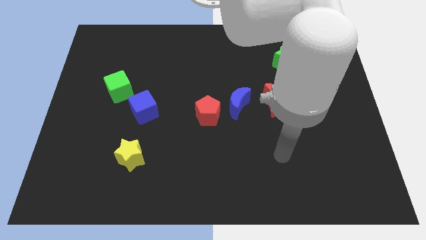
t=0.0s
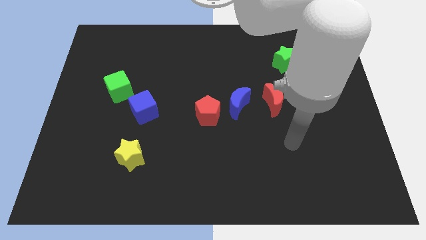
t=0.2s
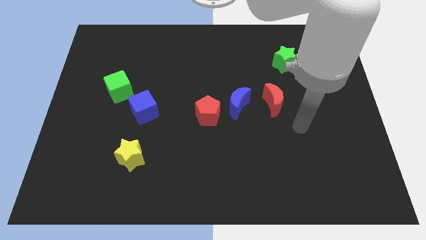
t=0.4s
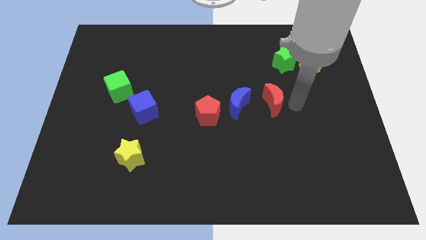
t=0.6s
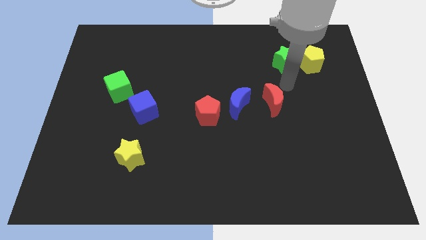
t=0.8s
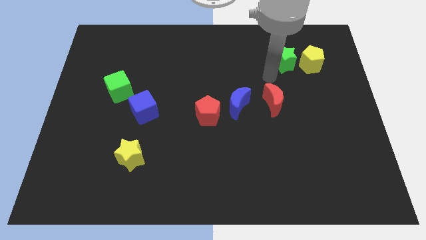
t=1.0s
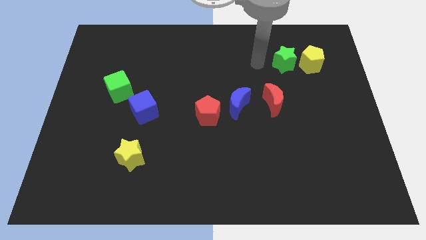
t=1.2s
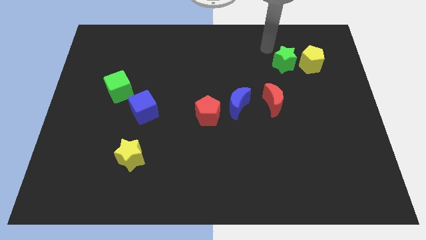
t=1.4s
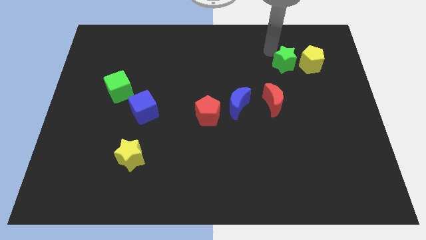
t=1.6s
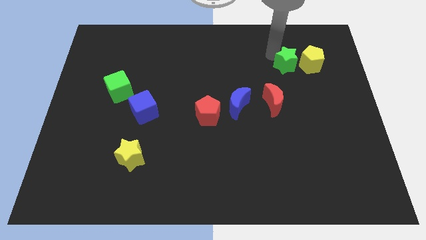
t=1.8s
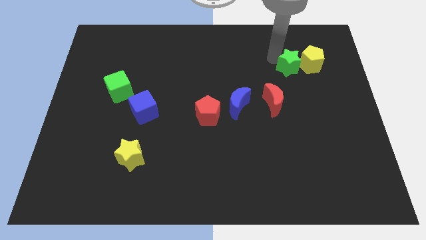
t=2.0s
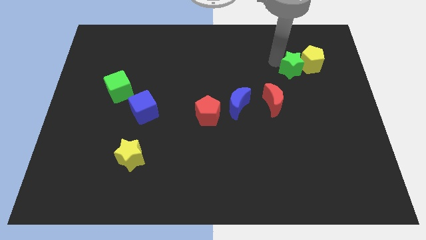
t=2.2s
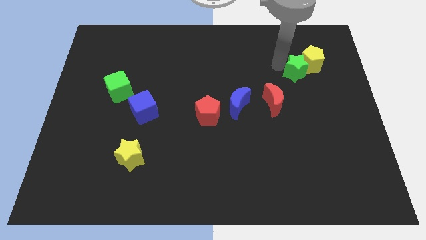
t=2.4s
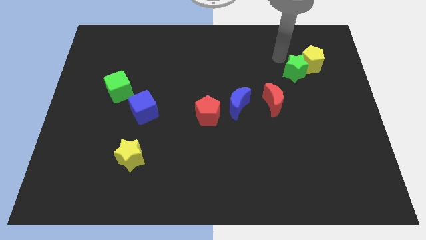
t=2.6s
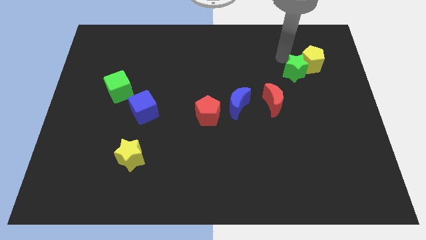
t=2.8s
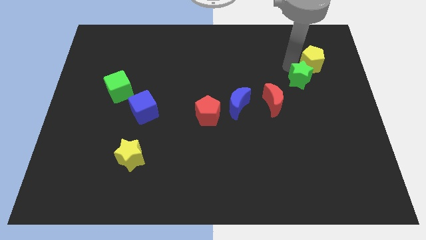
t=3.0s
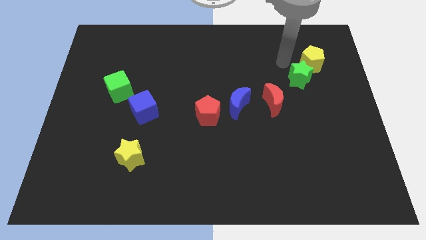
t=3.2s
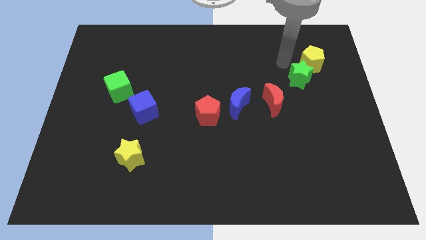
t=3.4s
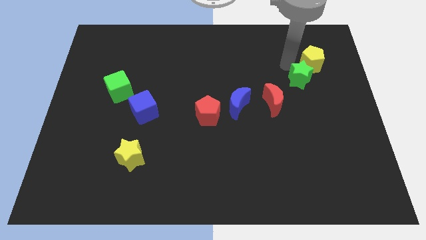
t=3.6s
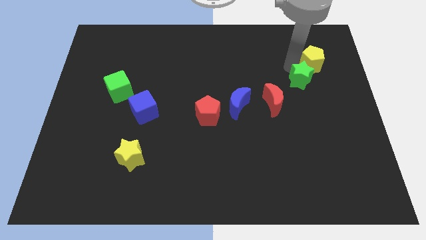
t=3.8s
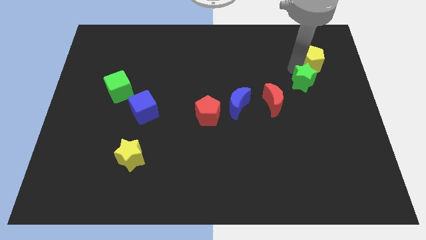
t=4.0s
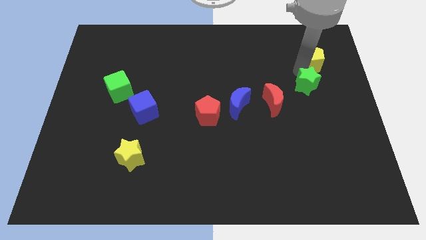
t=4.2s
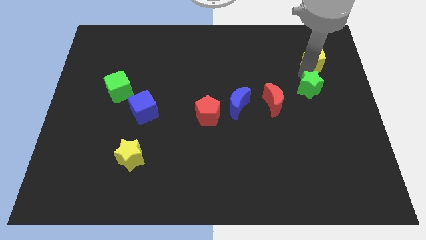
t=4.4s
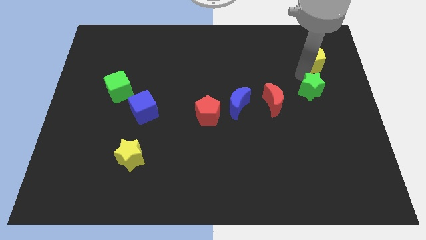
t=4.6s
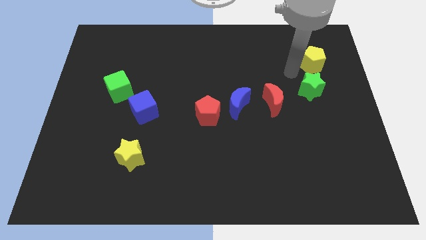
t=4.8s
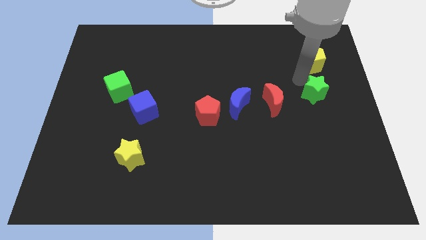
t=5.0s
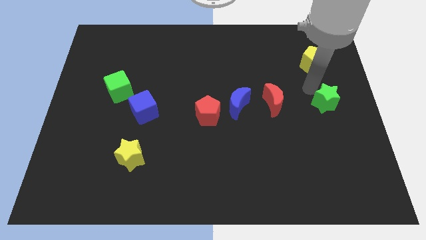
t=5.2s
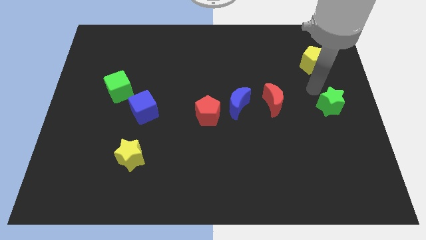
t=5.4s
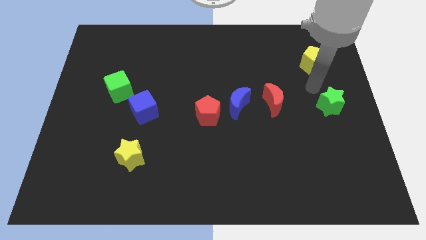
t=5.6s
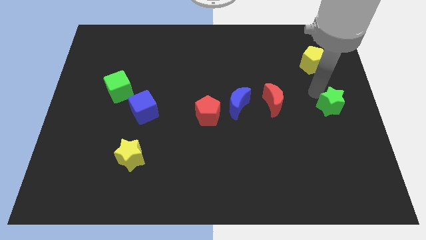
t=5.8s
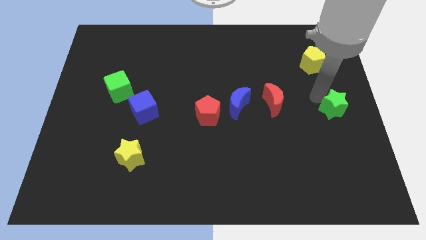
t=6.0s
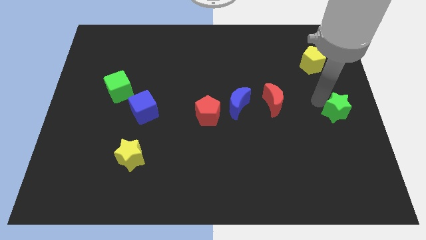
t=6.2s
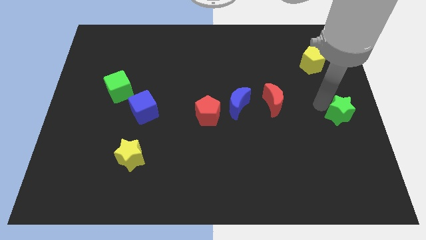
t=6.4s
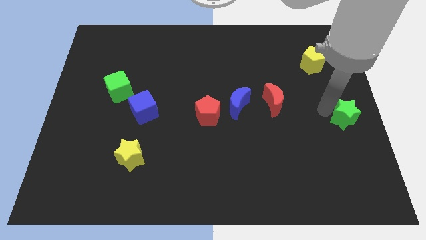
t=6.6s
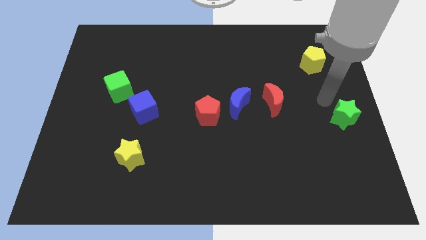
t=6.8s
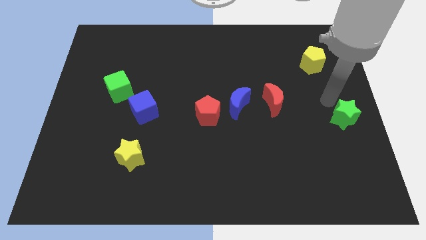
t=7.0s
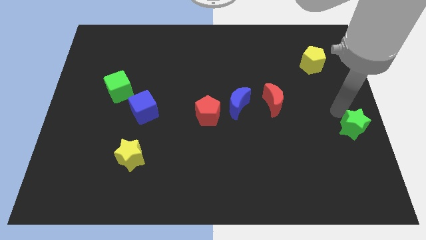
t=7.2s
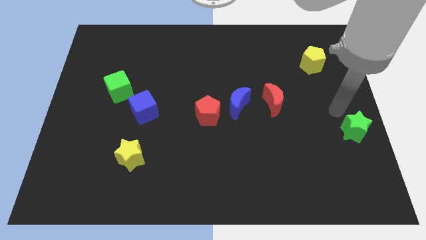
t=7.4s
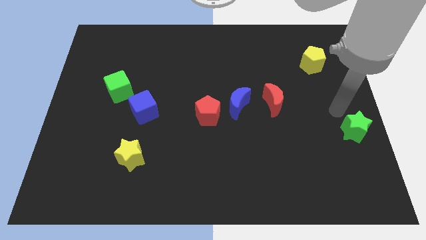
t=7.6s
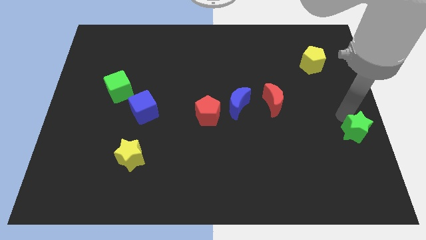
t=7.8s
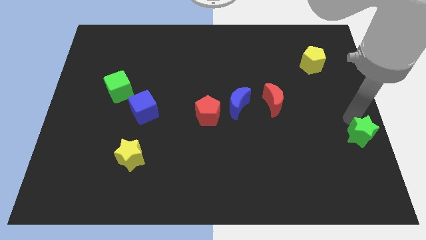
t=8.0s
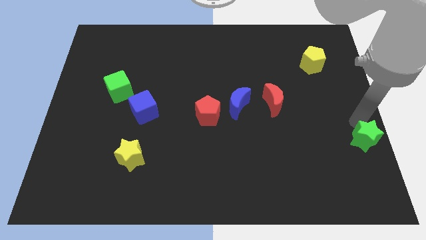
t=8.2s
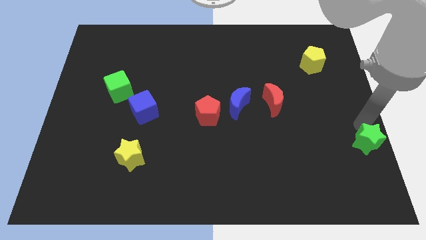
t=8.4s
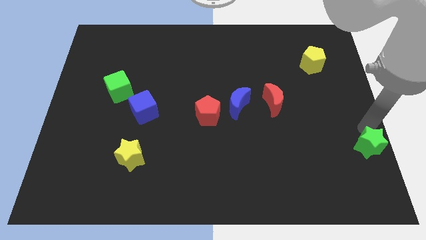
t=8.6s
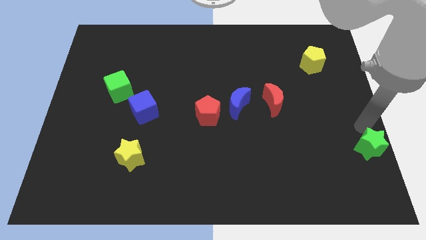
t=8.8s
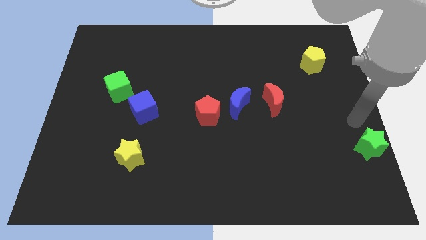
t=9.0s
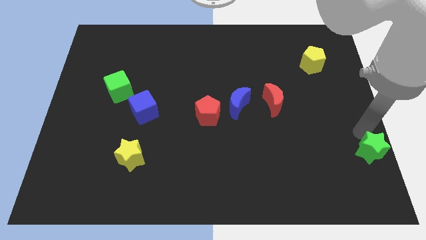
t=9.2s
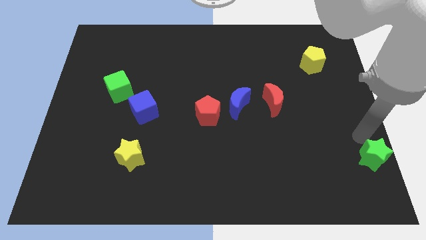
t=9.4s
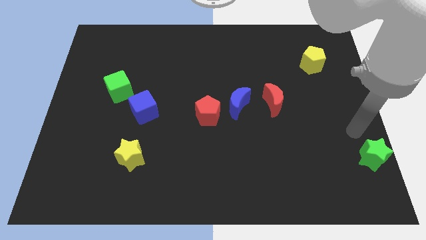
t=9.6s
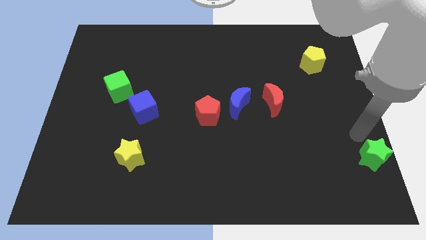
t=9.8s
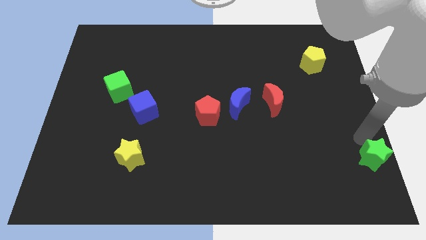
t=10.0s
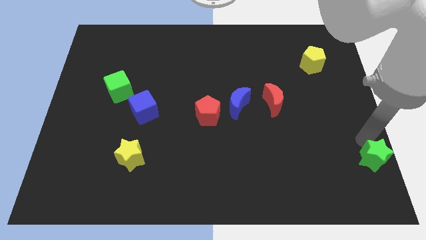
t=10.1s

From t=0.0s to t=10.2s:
push the green star to the bottom right

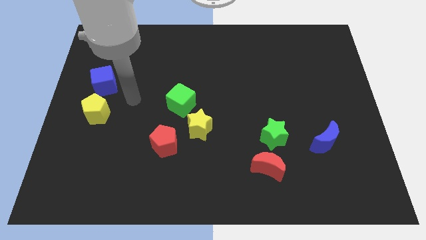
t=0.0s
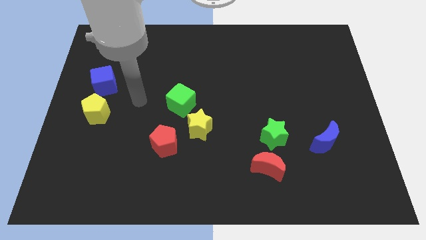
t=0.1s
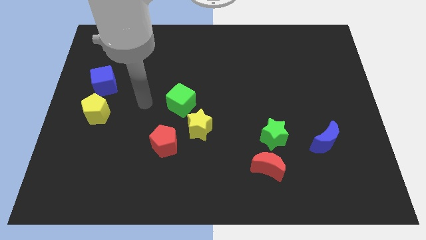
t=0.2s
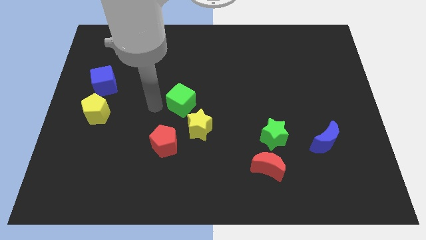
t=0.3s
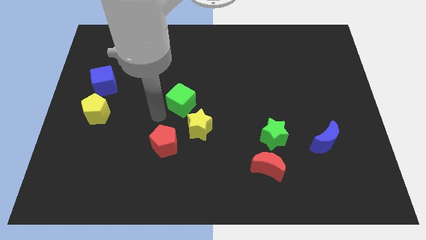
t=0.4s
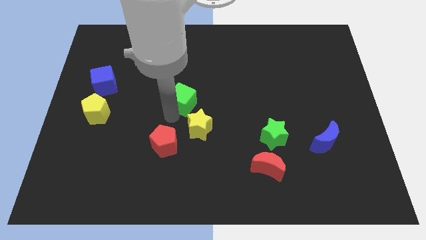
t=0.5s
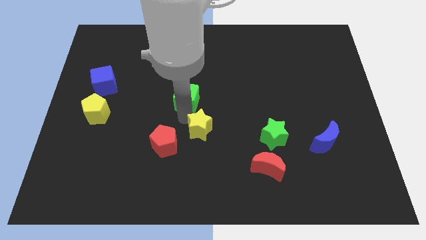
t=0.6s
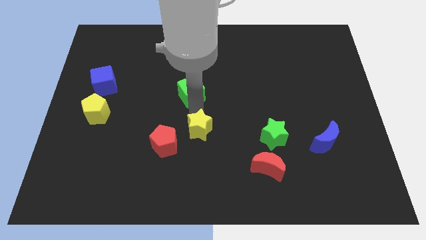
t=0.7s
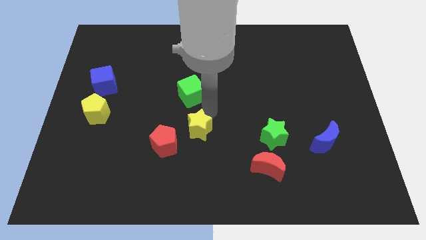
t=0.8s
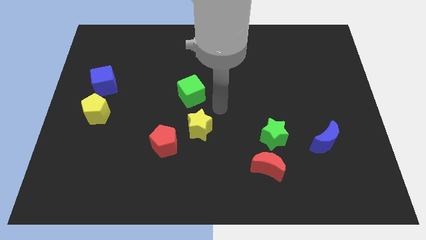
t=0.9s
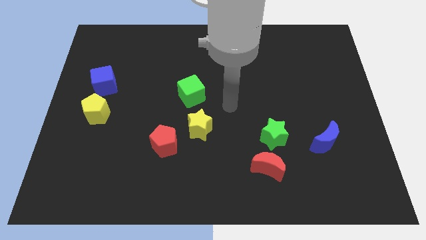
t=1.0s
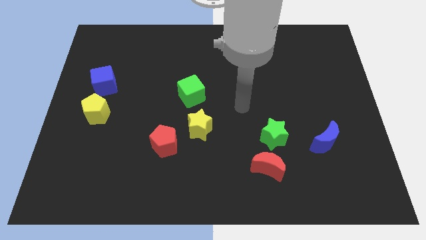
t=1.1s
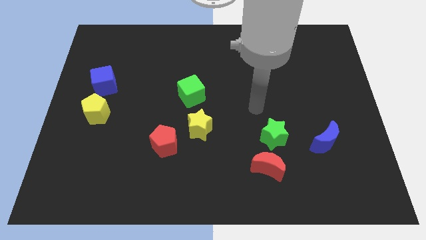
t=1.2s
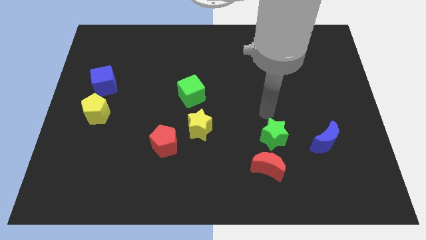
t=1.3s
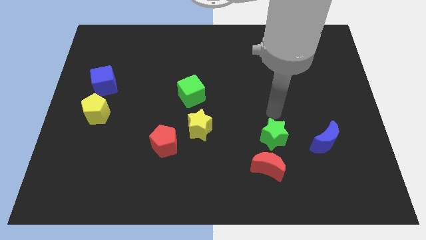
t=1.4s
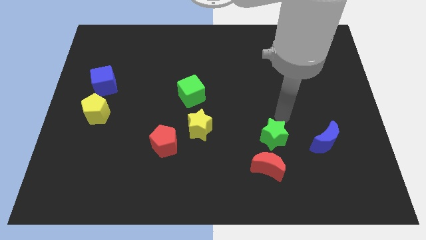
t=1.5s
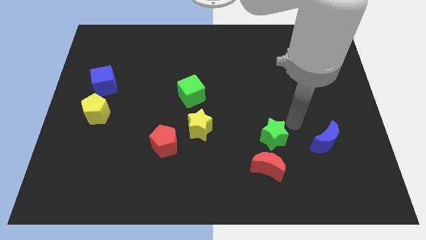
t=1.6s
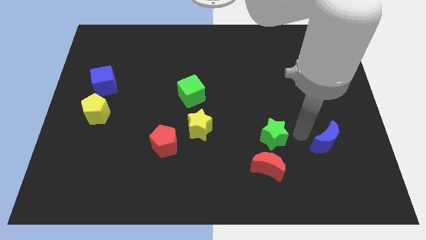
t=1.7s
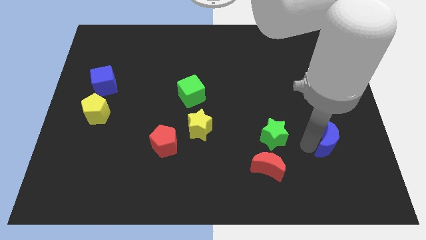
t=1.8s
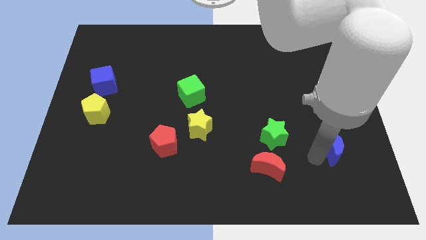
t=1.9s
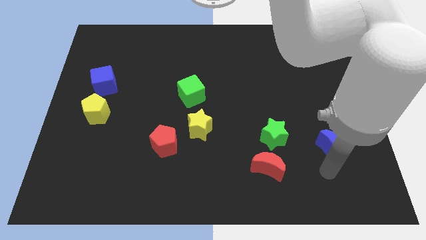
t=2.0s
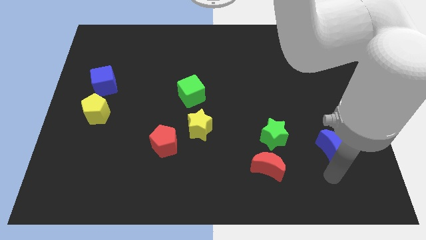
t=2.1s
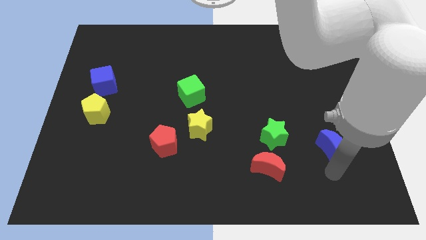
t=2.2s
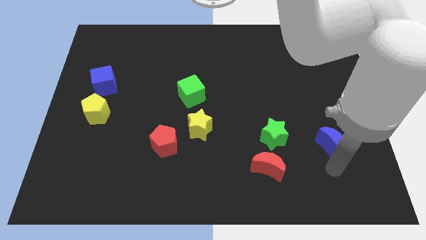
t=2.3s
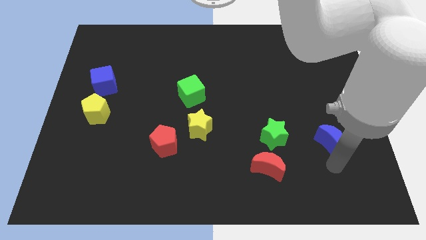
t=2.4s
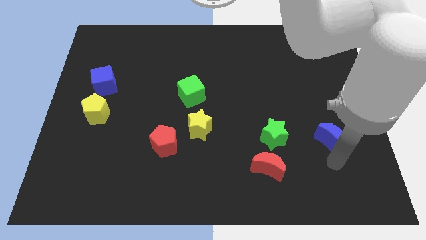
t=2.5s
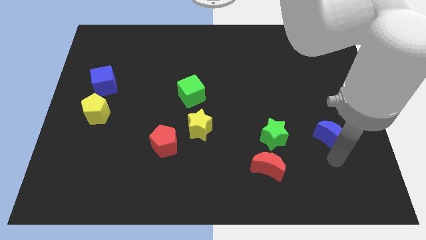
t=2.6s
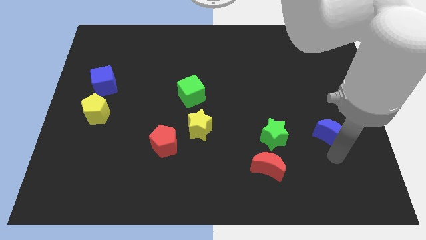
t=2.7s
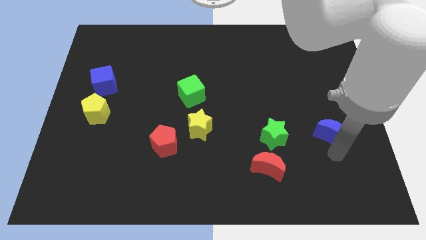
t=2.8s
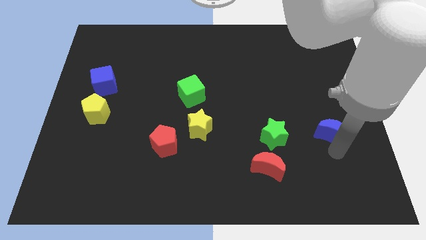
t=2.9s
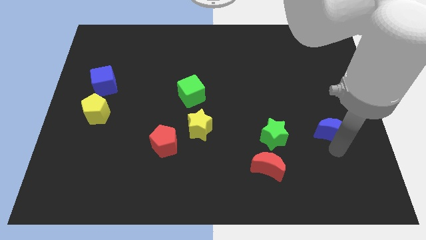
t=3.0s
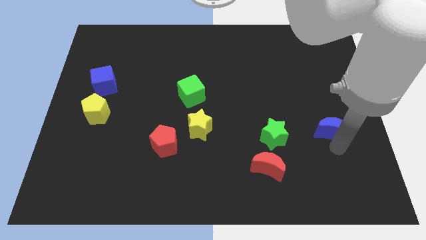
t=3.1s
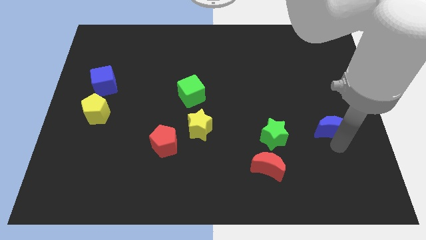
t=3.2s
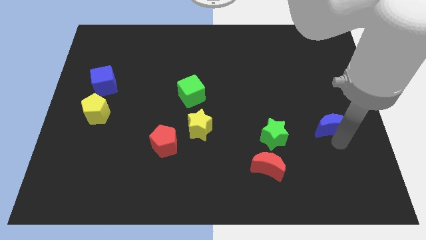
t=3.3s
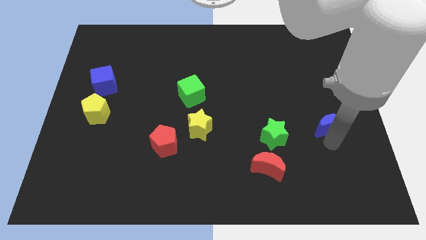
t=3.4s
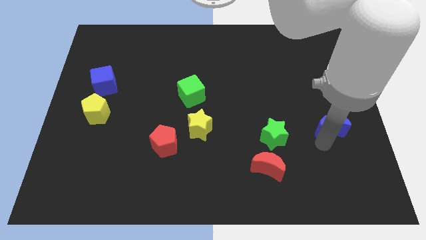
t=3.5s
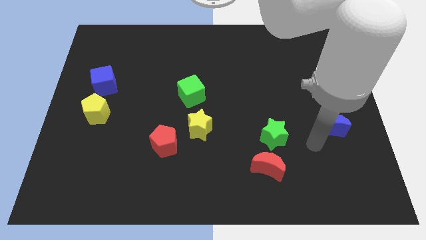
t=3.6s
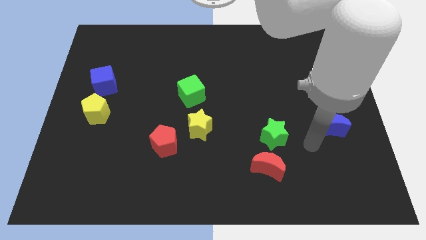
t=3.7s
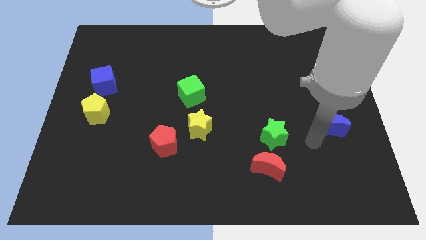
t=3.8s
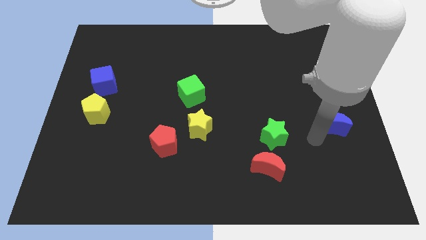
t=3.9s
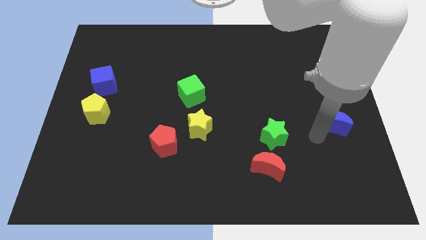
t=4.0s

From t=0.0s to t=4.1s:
push the blue moon to the right side of the board
